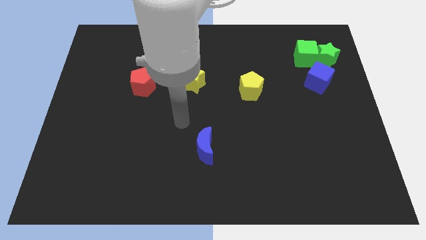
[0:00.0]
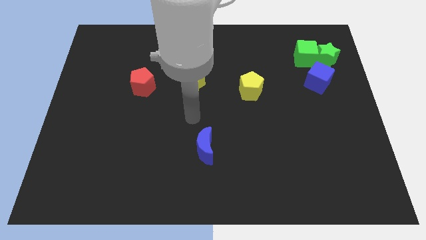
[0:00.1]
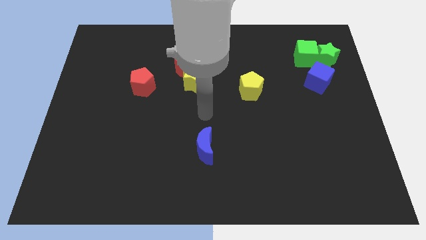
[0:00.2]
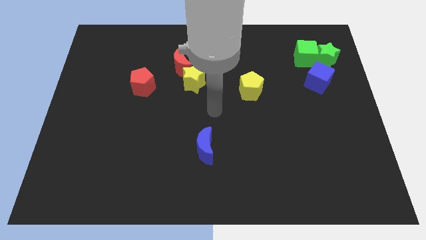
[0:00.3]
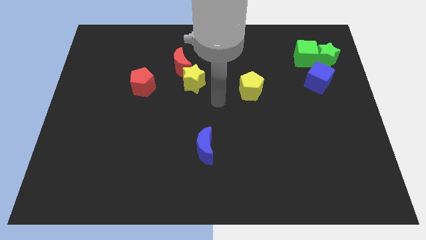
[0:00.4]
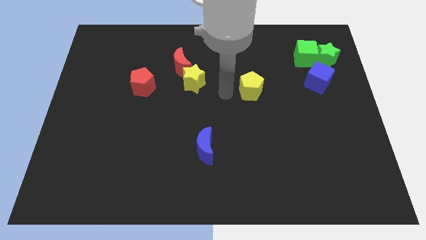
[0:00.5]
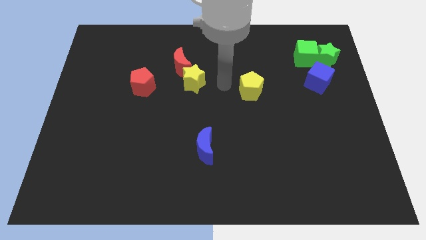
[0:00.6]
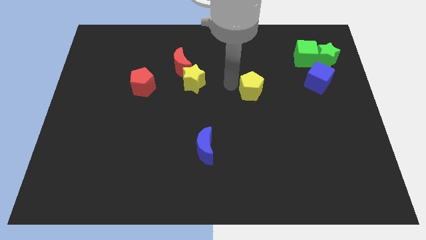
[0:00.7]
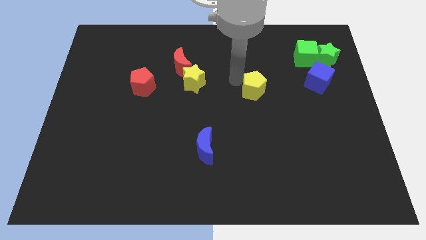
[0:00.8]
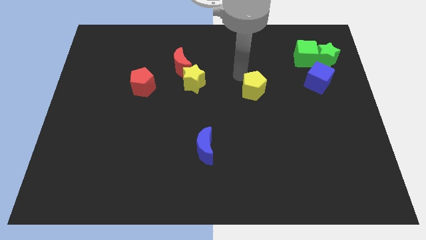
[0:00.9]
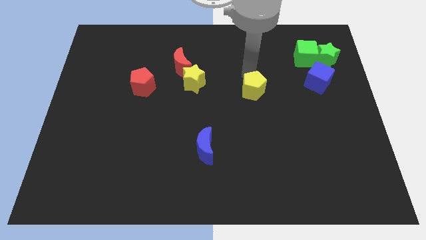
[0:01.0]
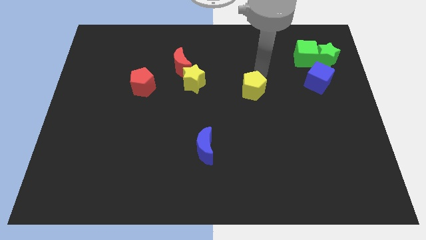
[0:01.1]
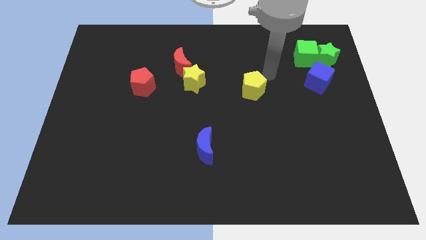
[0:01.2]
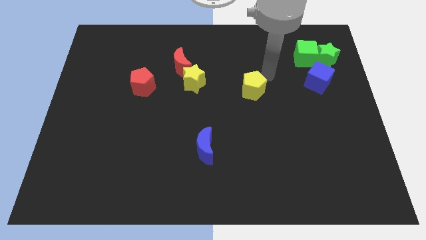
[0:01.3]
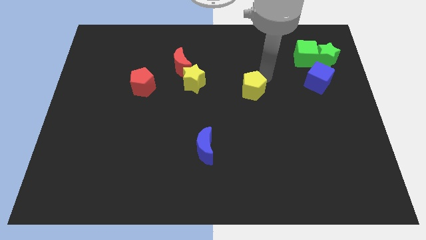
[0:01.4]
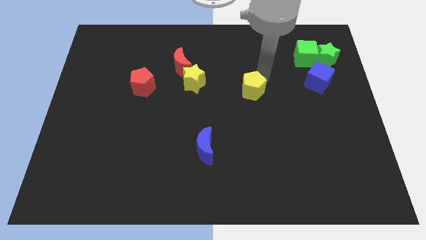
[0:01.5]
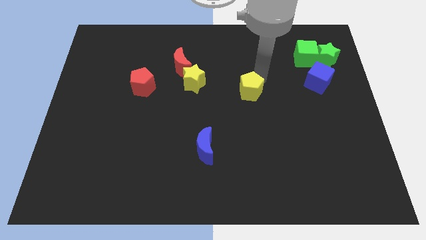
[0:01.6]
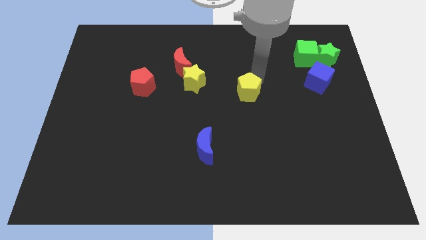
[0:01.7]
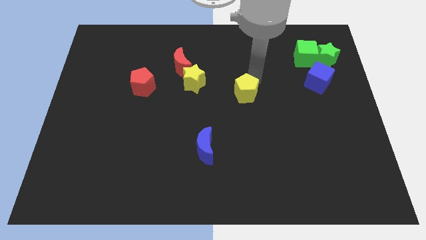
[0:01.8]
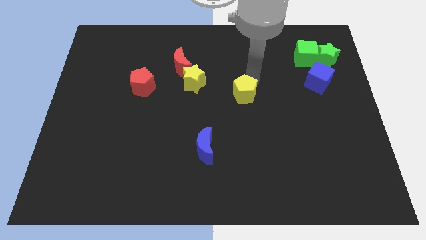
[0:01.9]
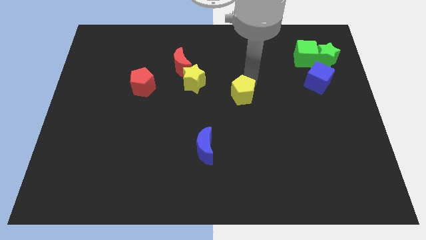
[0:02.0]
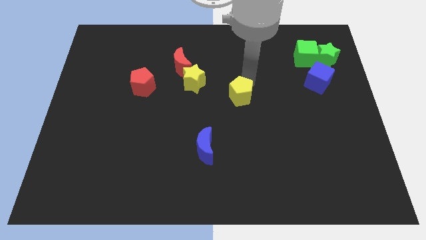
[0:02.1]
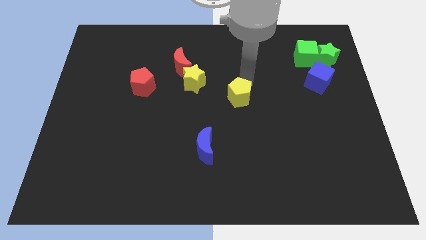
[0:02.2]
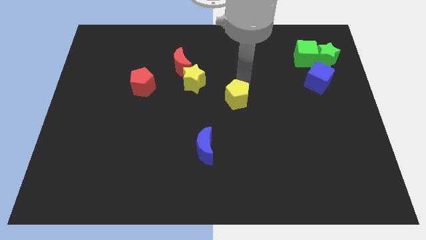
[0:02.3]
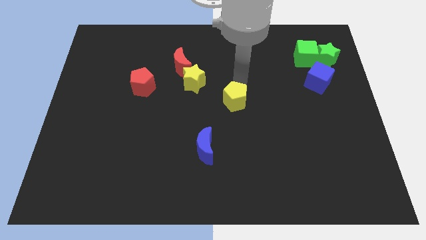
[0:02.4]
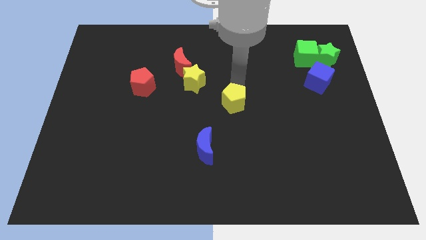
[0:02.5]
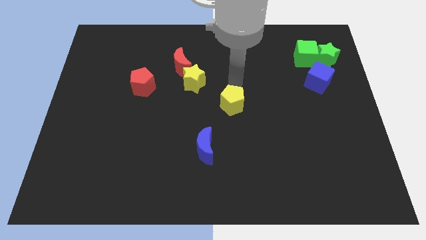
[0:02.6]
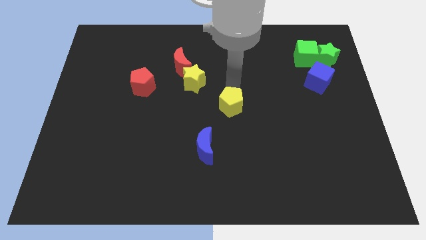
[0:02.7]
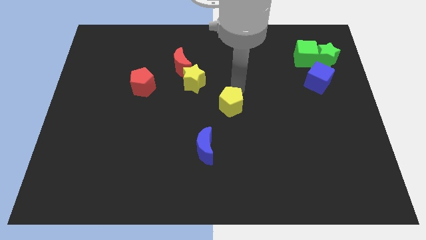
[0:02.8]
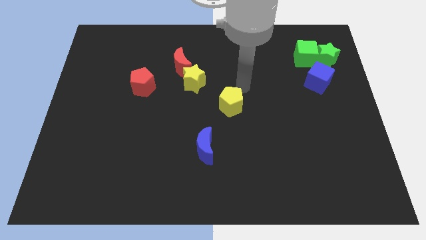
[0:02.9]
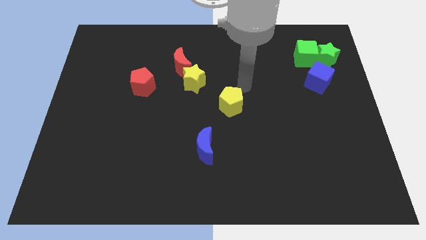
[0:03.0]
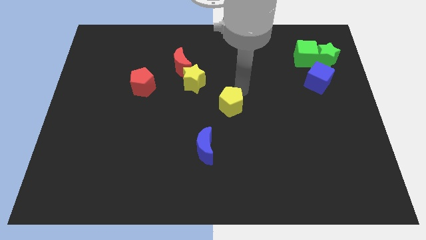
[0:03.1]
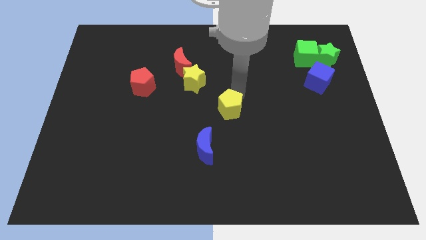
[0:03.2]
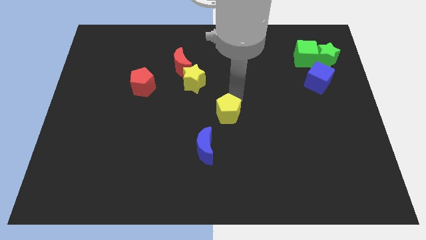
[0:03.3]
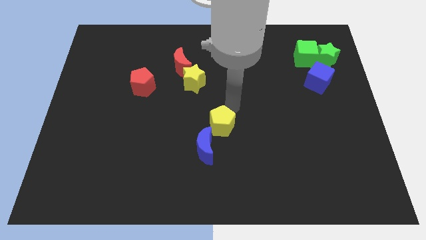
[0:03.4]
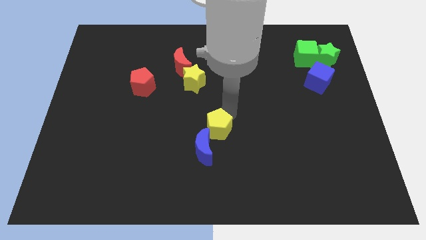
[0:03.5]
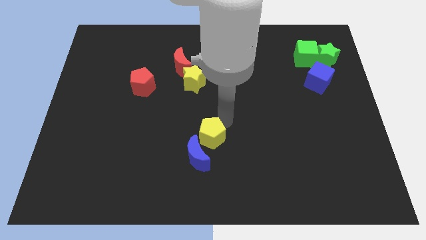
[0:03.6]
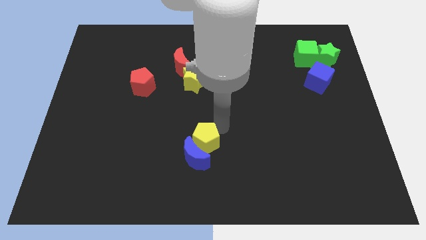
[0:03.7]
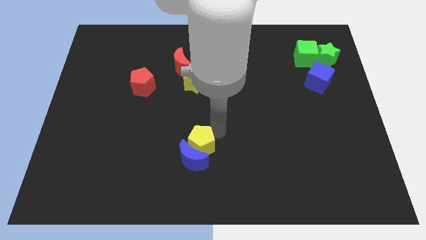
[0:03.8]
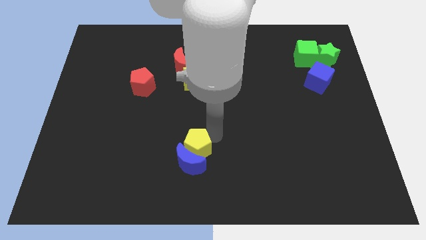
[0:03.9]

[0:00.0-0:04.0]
push the yellow pentagon downwards and to the left

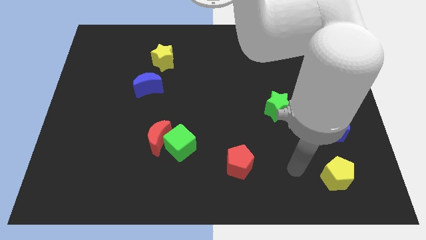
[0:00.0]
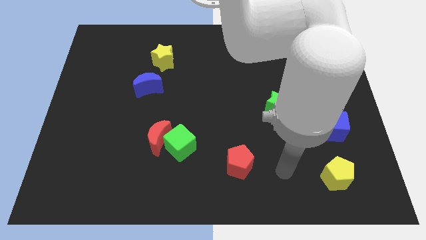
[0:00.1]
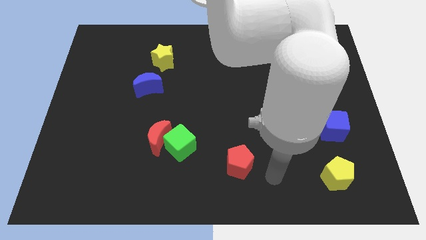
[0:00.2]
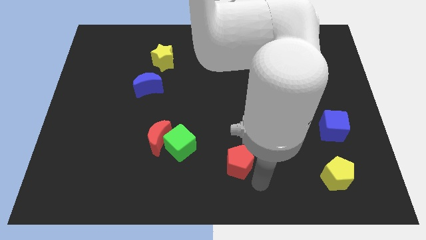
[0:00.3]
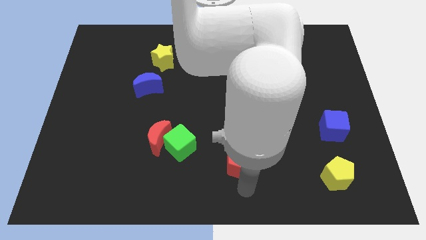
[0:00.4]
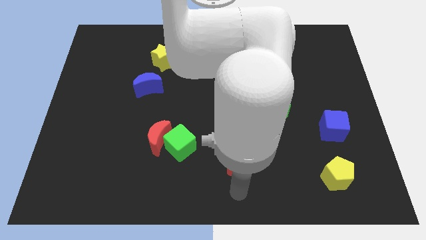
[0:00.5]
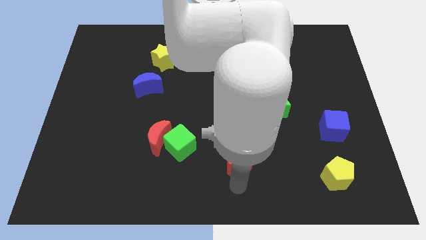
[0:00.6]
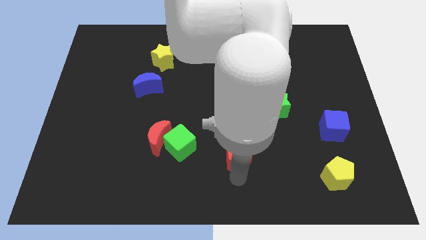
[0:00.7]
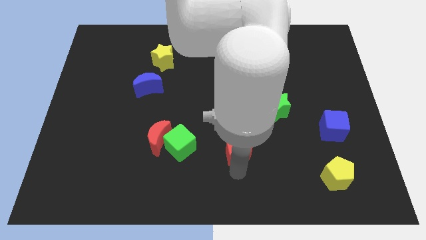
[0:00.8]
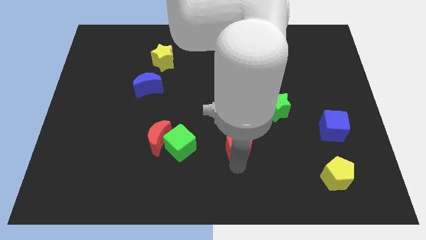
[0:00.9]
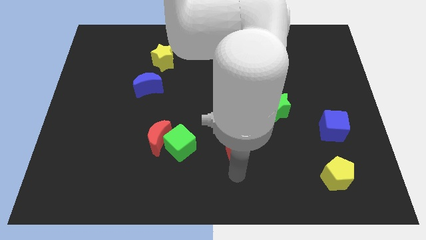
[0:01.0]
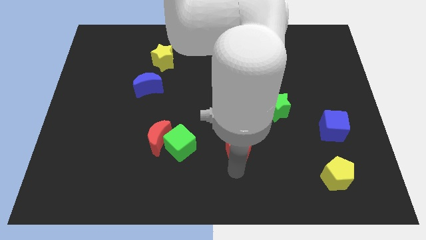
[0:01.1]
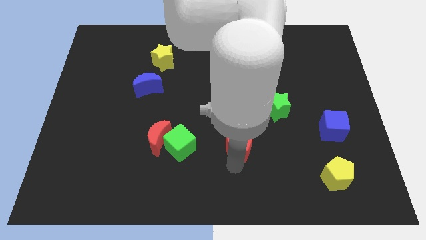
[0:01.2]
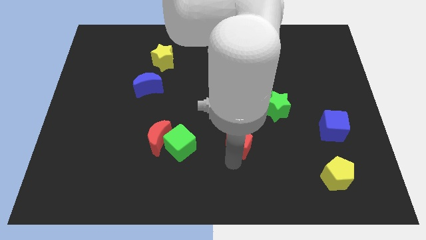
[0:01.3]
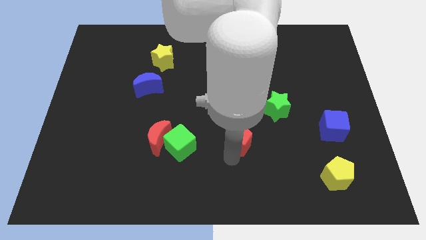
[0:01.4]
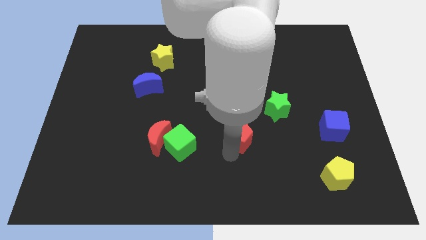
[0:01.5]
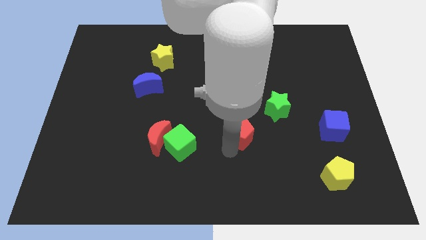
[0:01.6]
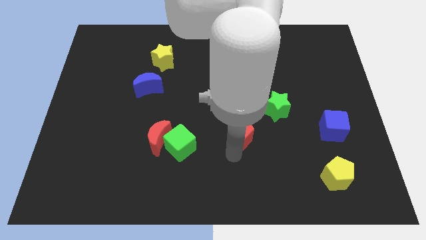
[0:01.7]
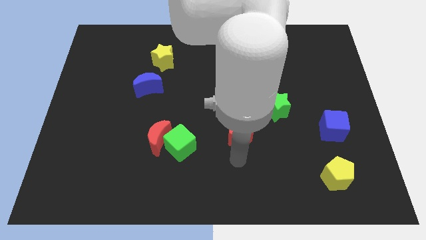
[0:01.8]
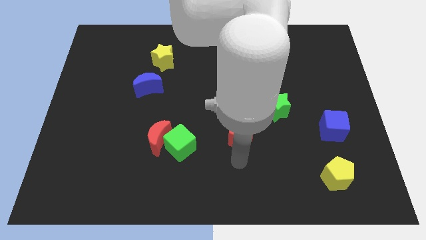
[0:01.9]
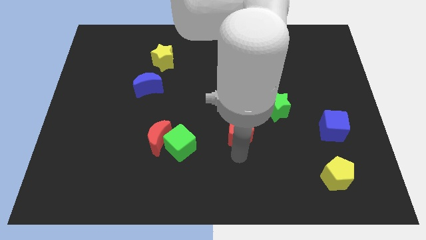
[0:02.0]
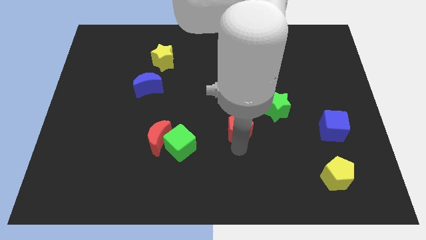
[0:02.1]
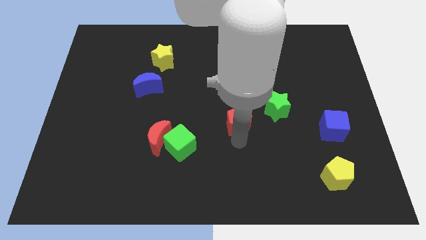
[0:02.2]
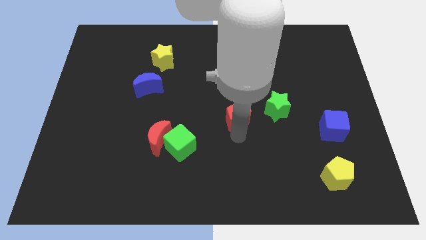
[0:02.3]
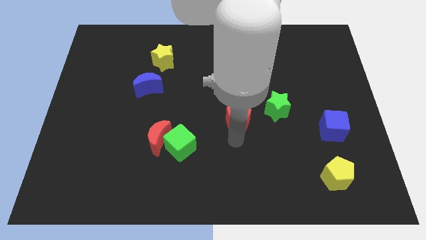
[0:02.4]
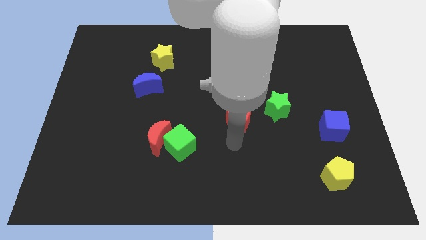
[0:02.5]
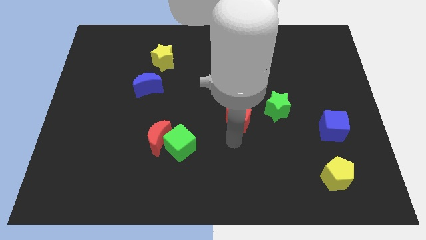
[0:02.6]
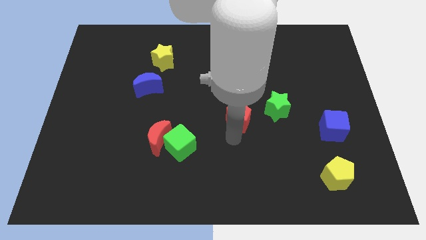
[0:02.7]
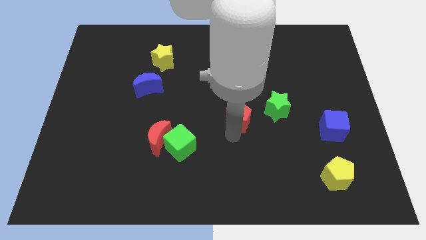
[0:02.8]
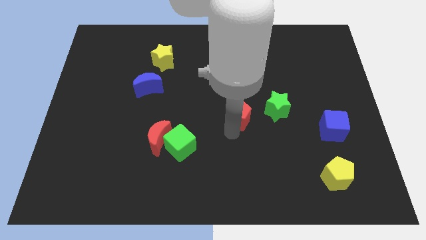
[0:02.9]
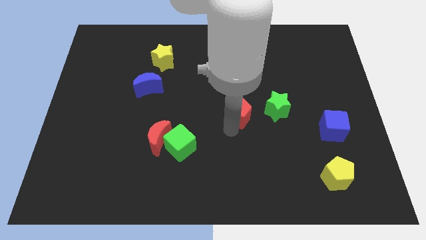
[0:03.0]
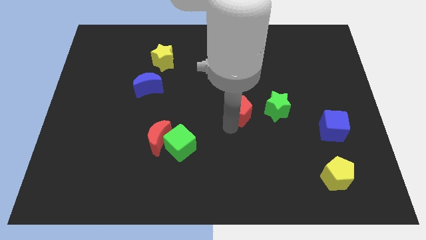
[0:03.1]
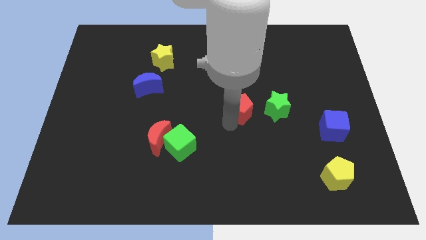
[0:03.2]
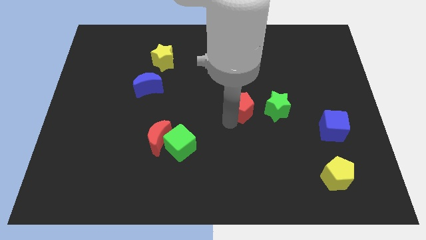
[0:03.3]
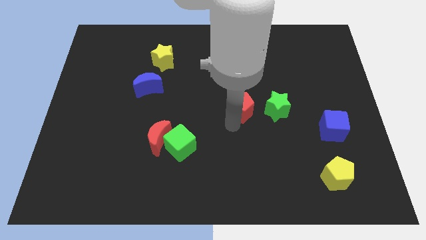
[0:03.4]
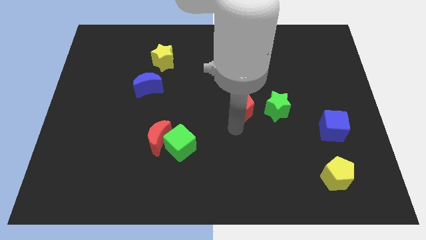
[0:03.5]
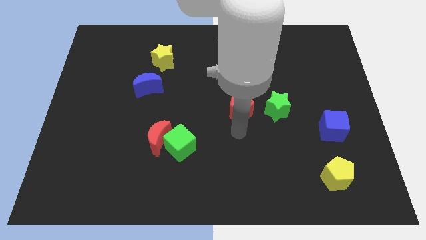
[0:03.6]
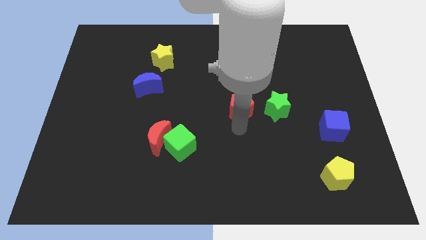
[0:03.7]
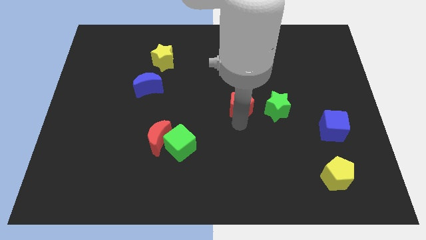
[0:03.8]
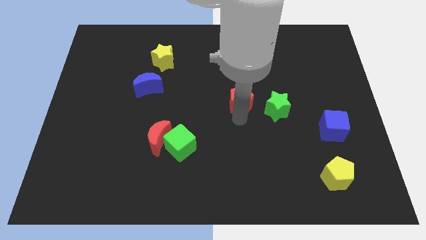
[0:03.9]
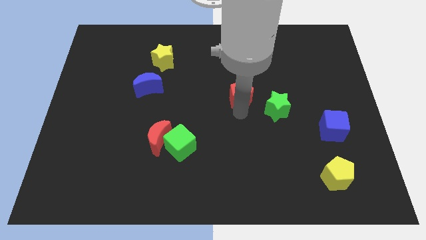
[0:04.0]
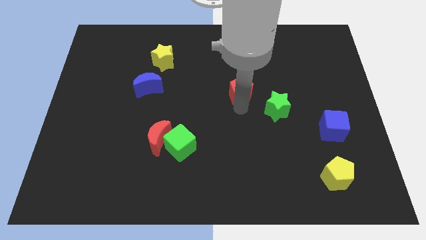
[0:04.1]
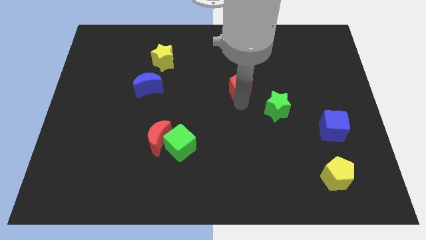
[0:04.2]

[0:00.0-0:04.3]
move the red pentagon upwards
